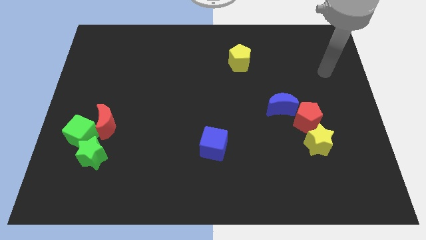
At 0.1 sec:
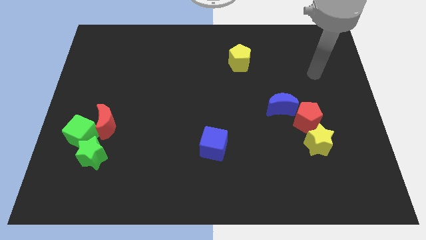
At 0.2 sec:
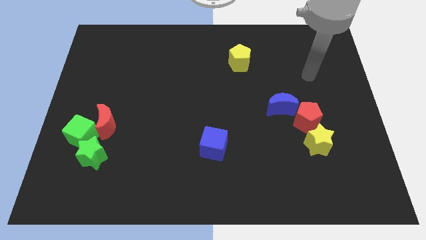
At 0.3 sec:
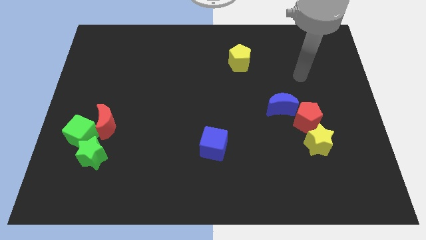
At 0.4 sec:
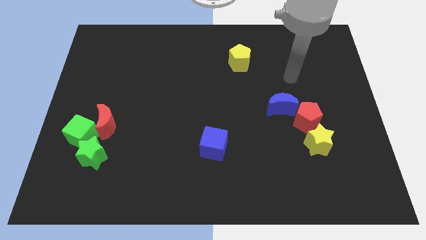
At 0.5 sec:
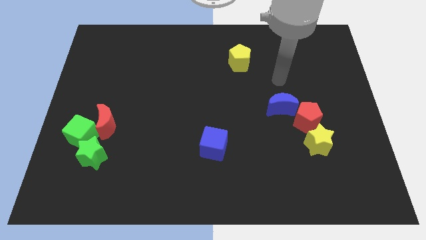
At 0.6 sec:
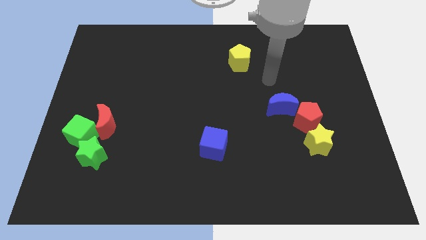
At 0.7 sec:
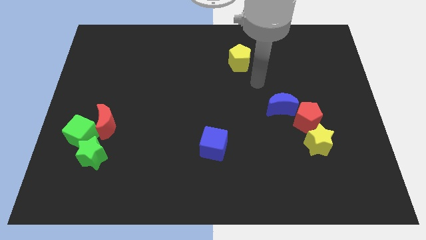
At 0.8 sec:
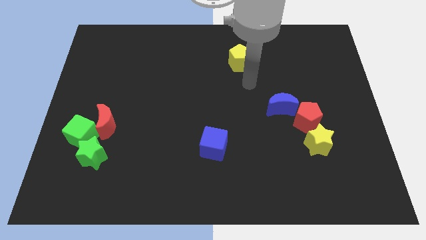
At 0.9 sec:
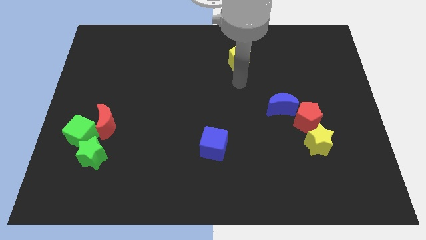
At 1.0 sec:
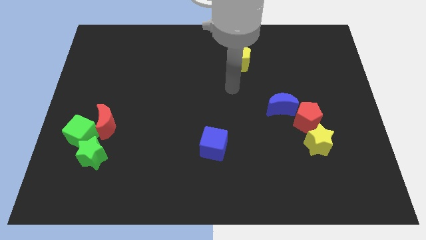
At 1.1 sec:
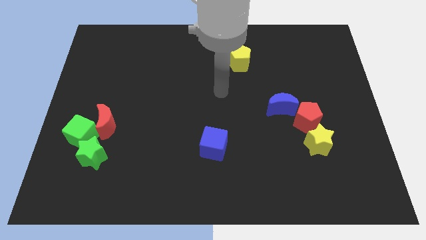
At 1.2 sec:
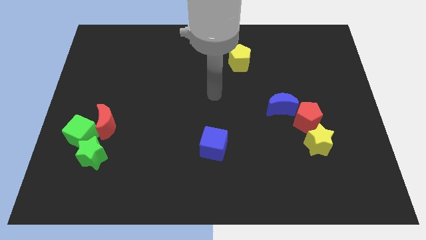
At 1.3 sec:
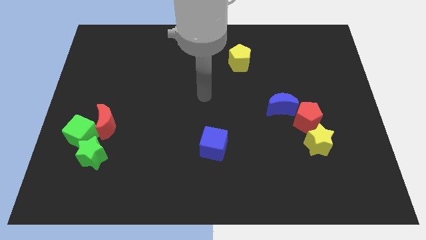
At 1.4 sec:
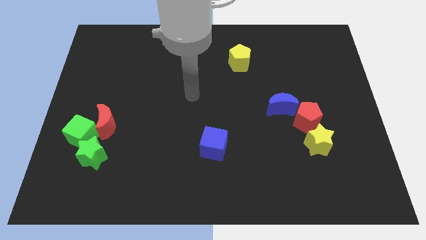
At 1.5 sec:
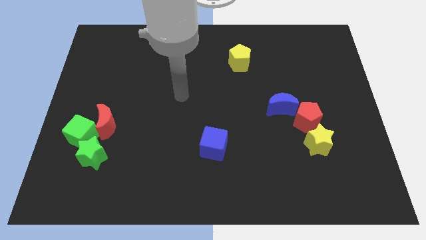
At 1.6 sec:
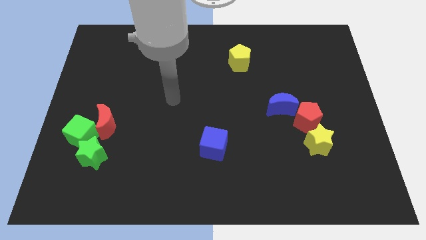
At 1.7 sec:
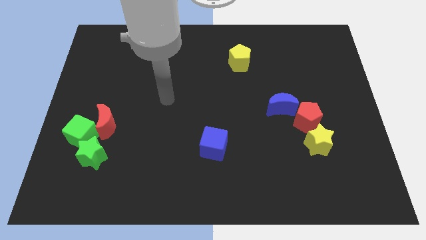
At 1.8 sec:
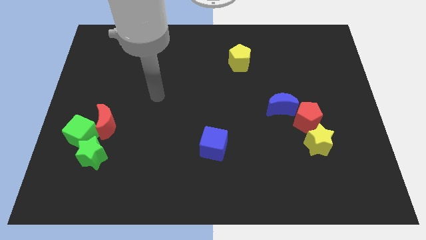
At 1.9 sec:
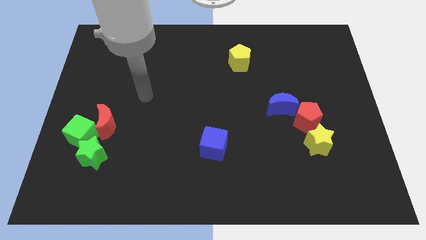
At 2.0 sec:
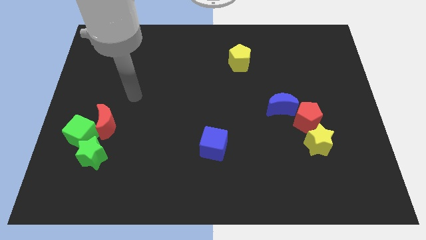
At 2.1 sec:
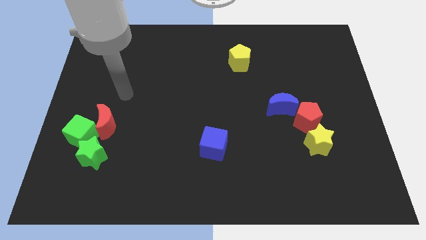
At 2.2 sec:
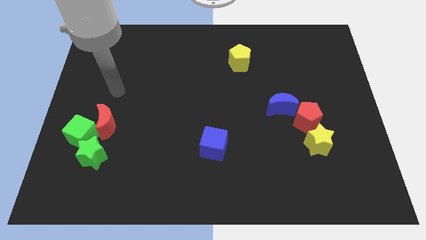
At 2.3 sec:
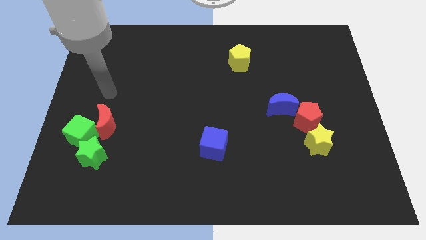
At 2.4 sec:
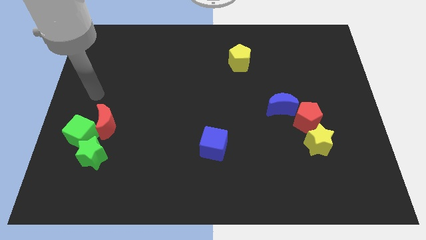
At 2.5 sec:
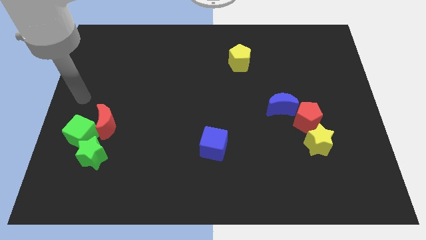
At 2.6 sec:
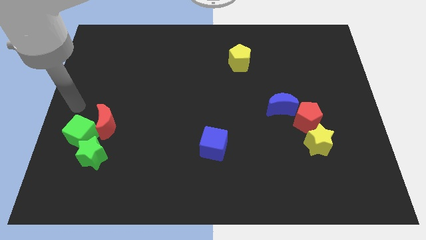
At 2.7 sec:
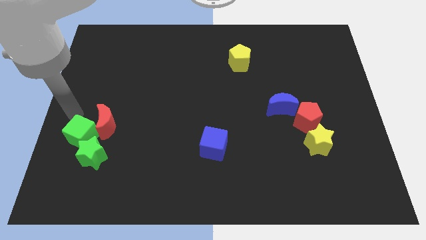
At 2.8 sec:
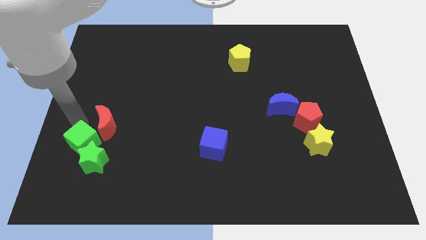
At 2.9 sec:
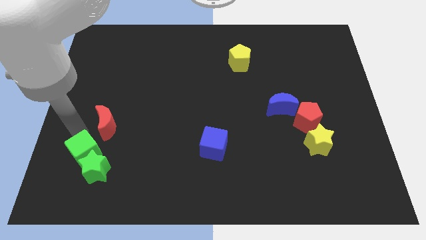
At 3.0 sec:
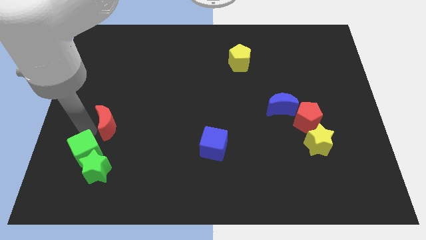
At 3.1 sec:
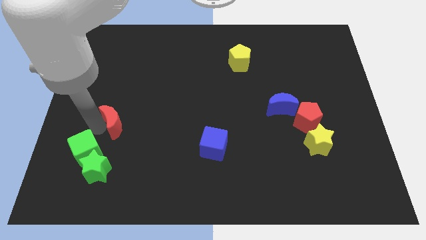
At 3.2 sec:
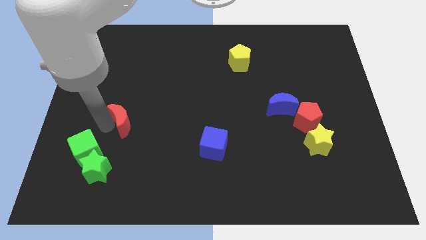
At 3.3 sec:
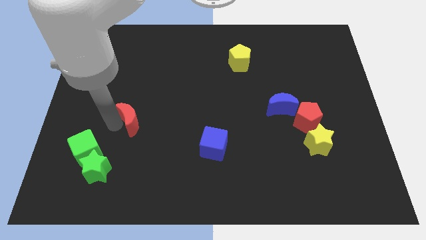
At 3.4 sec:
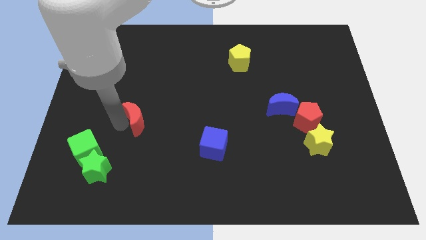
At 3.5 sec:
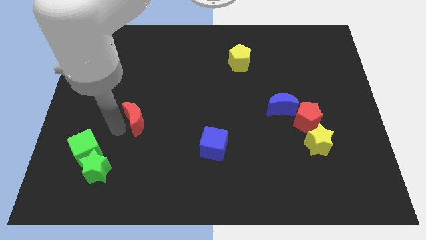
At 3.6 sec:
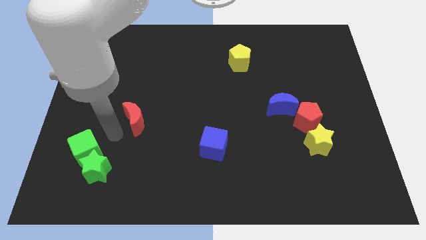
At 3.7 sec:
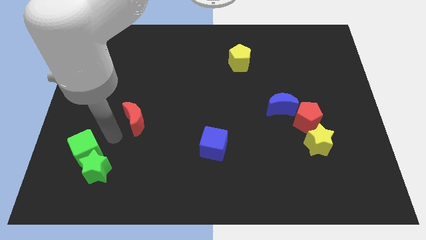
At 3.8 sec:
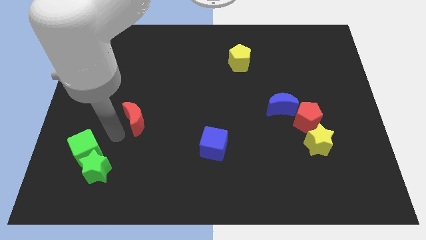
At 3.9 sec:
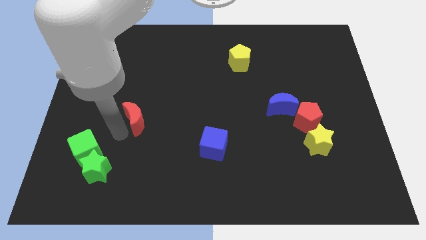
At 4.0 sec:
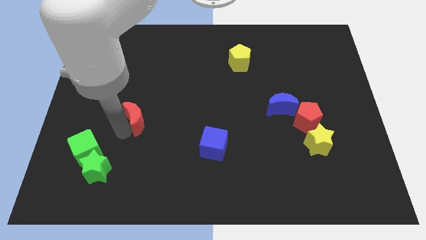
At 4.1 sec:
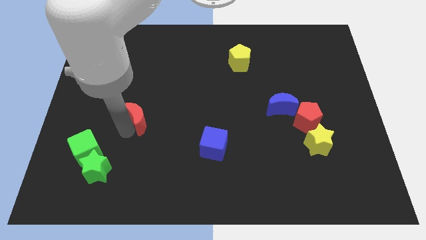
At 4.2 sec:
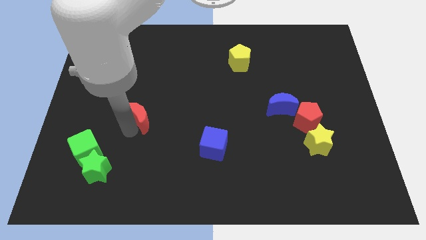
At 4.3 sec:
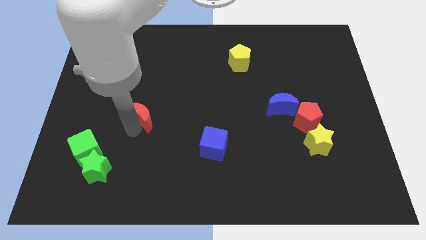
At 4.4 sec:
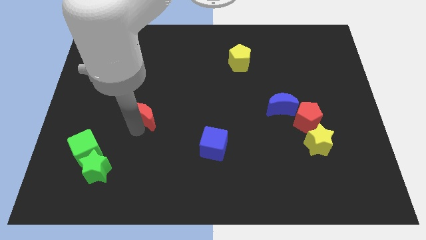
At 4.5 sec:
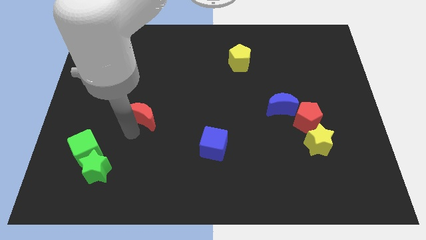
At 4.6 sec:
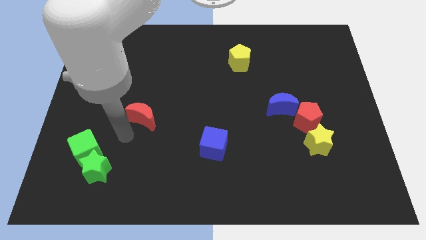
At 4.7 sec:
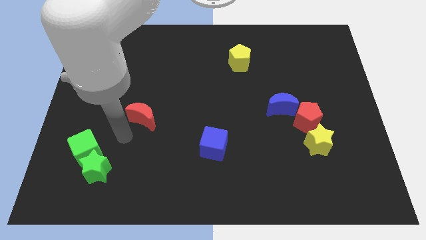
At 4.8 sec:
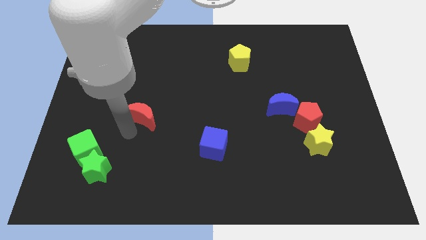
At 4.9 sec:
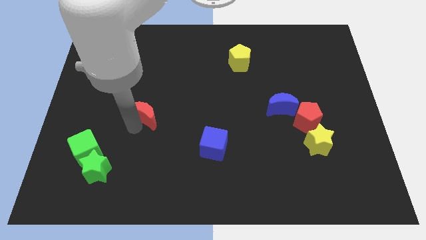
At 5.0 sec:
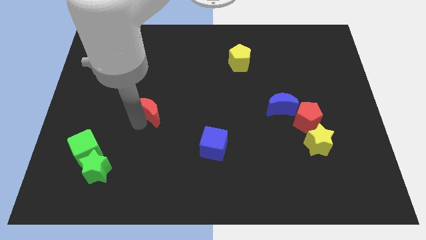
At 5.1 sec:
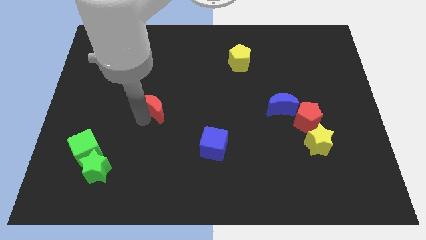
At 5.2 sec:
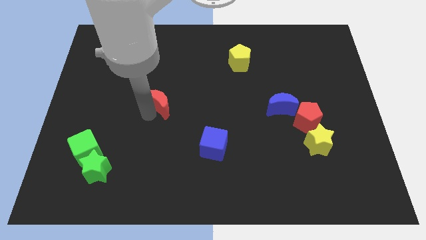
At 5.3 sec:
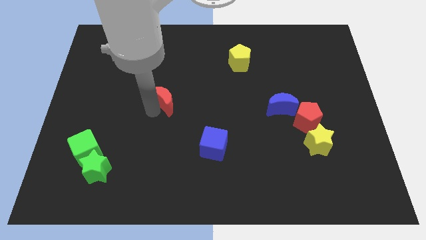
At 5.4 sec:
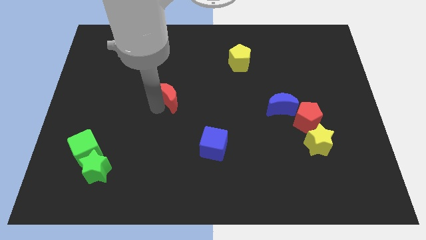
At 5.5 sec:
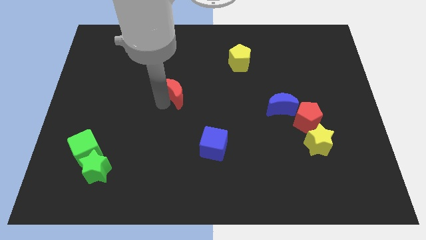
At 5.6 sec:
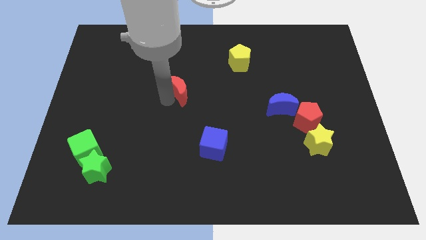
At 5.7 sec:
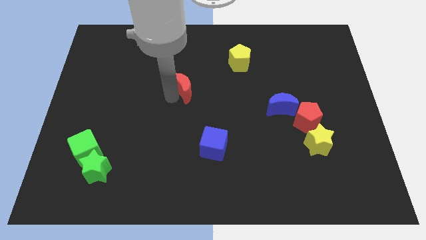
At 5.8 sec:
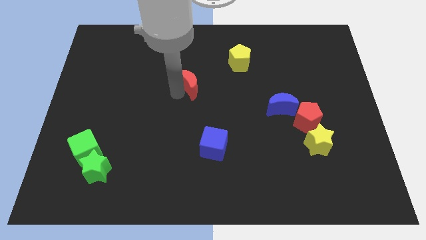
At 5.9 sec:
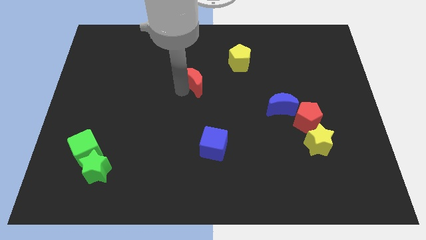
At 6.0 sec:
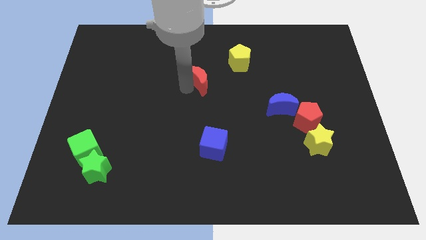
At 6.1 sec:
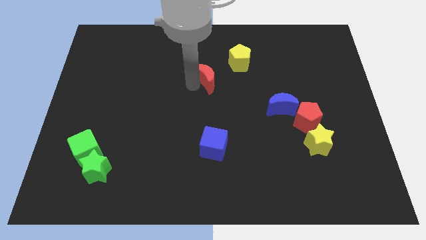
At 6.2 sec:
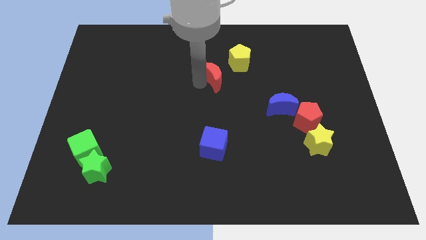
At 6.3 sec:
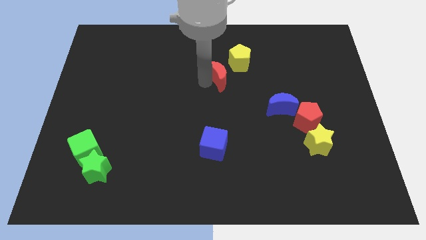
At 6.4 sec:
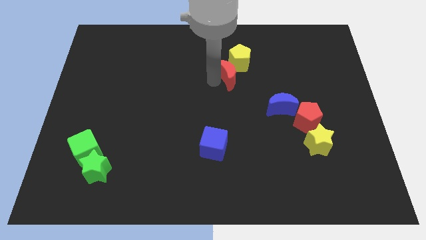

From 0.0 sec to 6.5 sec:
move the red moon towards the yellow pentagon
